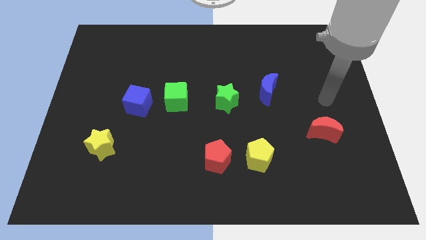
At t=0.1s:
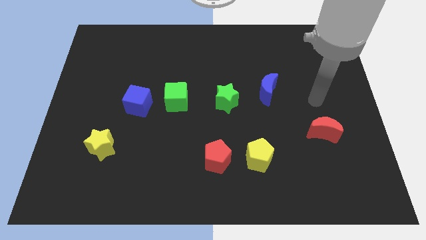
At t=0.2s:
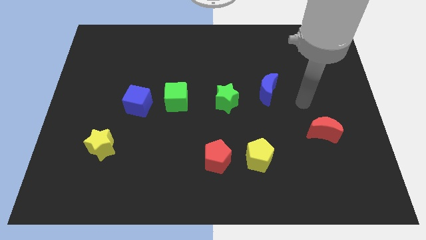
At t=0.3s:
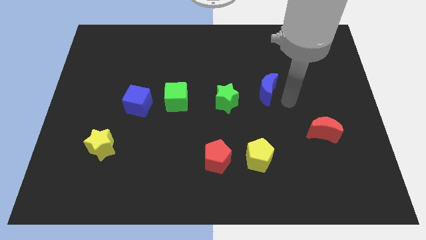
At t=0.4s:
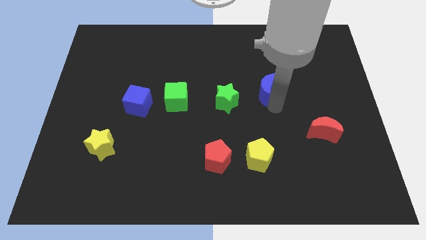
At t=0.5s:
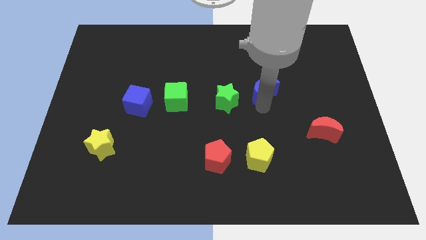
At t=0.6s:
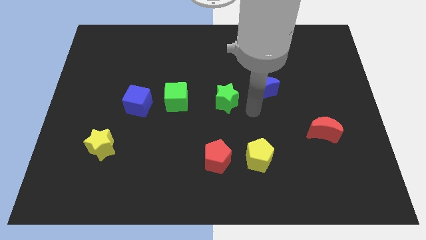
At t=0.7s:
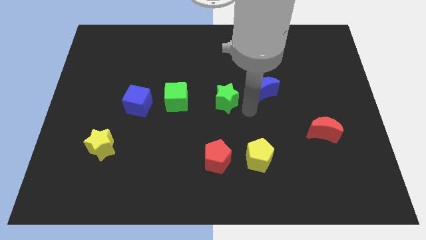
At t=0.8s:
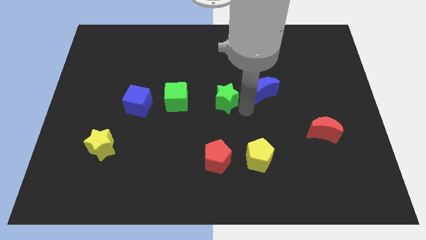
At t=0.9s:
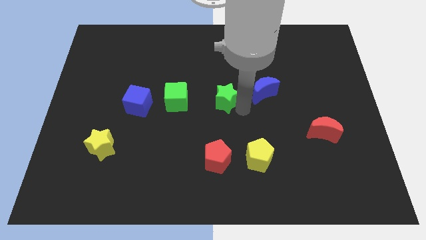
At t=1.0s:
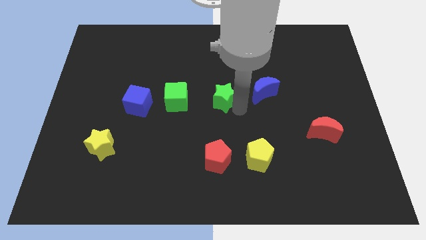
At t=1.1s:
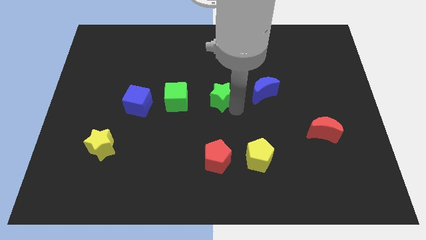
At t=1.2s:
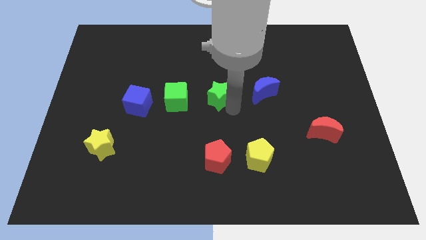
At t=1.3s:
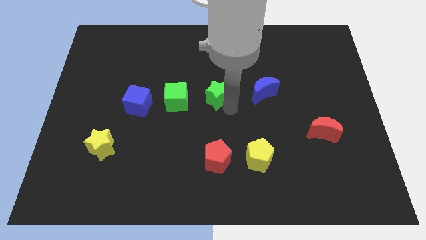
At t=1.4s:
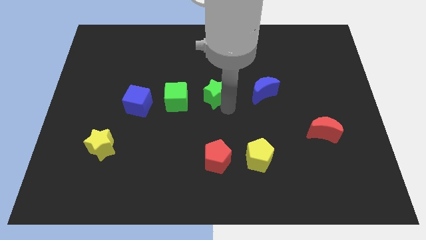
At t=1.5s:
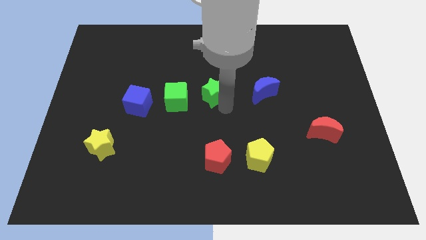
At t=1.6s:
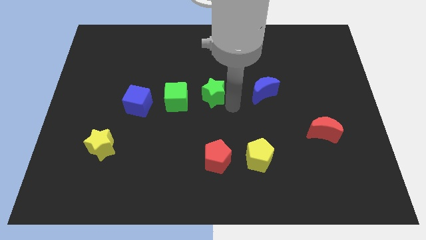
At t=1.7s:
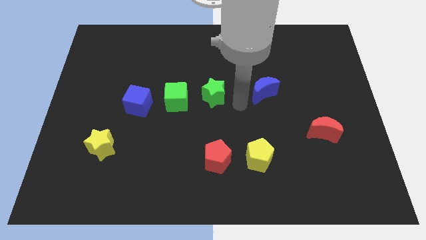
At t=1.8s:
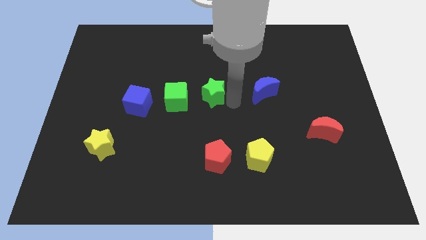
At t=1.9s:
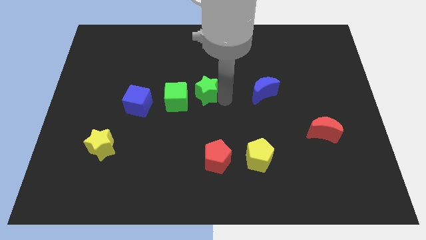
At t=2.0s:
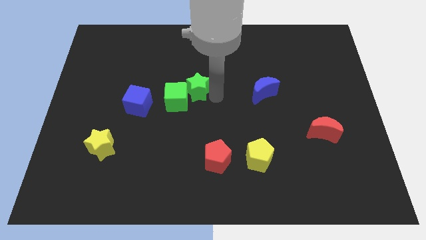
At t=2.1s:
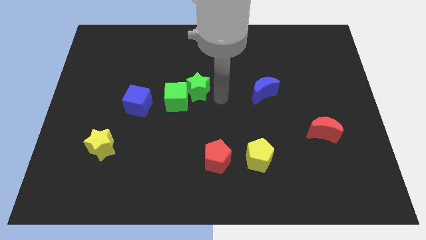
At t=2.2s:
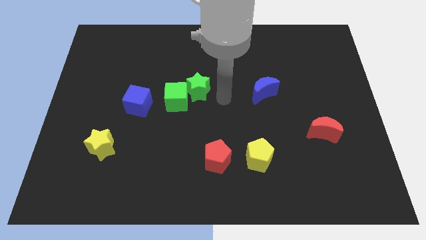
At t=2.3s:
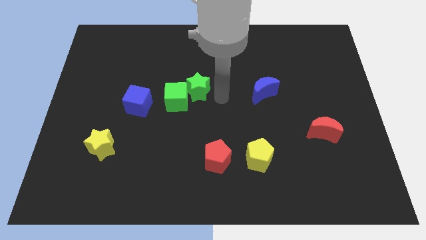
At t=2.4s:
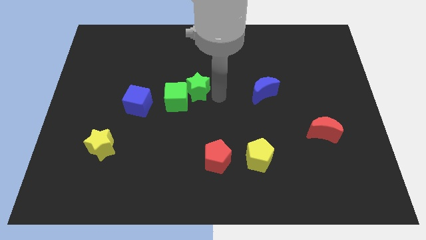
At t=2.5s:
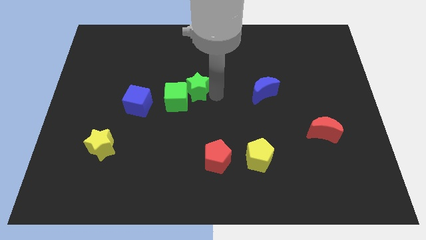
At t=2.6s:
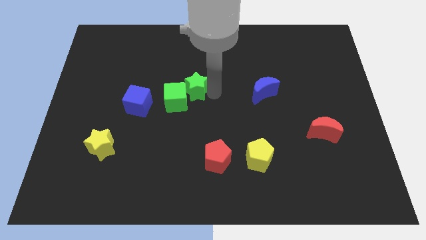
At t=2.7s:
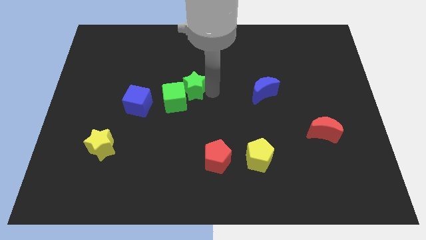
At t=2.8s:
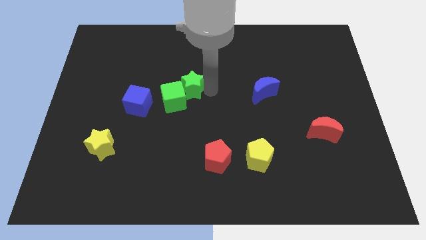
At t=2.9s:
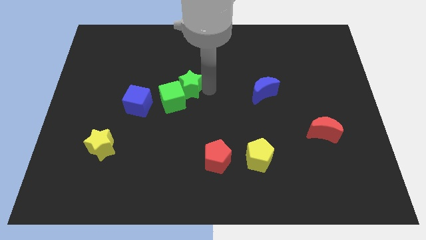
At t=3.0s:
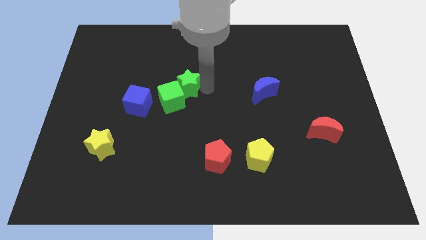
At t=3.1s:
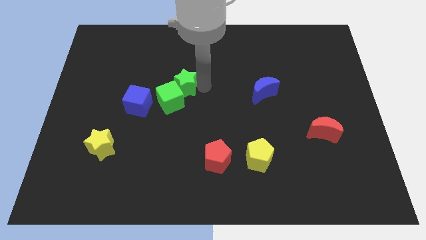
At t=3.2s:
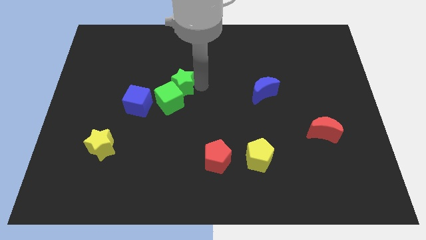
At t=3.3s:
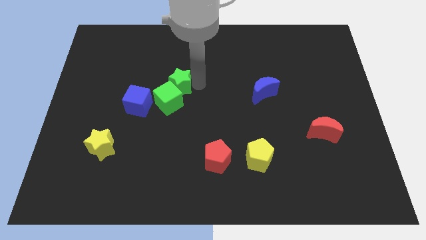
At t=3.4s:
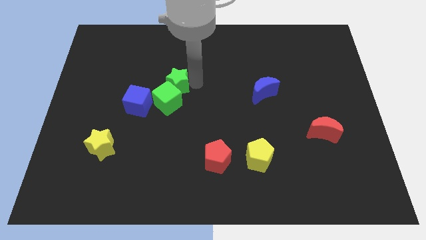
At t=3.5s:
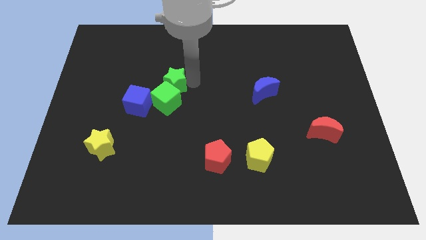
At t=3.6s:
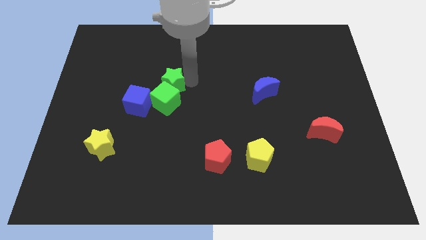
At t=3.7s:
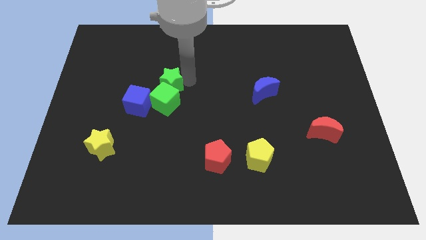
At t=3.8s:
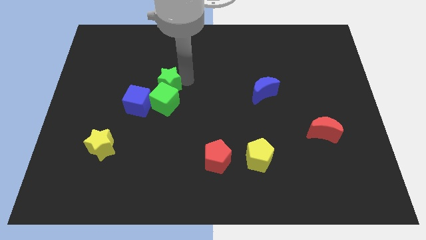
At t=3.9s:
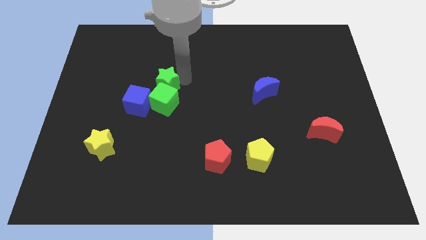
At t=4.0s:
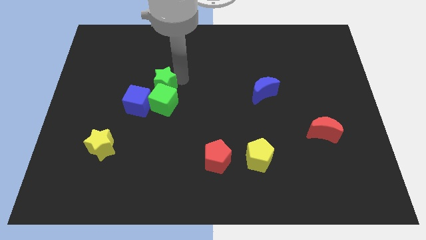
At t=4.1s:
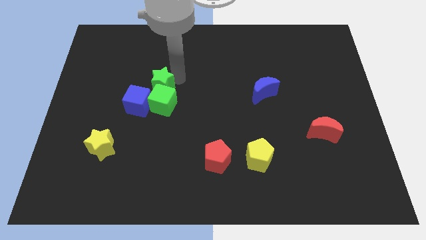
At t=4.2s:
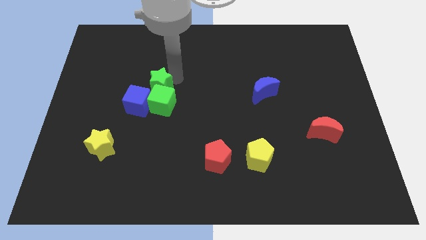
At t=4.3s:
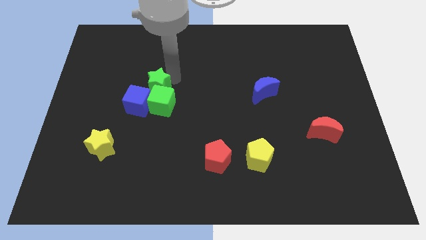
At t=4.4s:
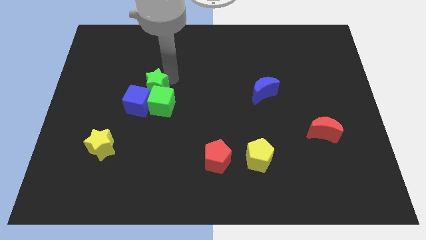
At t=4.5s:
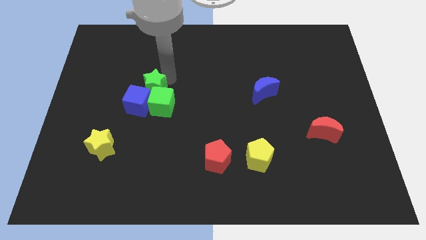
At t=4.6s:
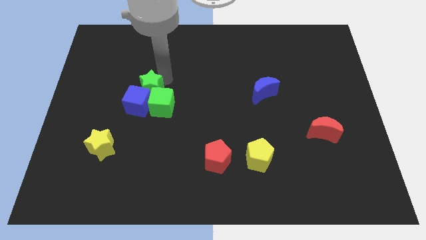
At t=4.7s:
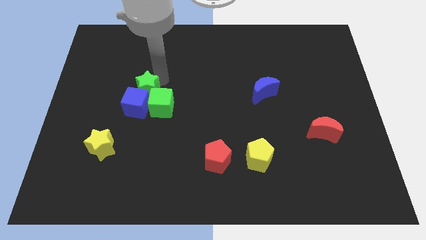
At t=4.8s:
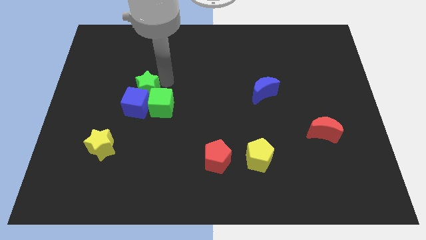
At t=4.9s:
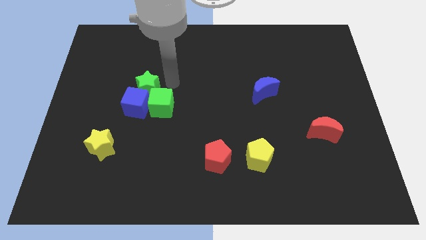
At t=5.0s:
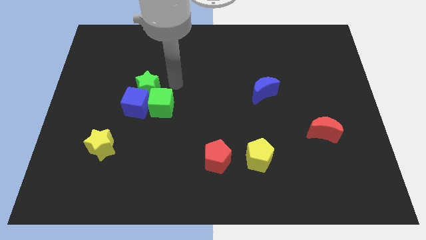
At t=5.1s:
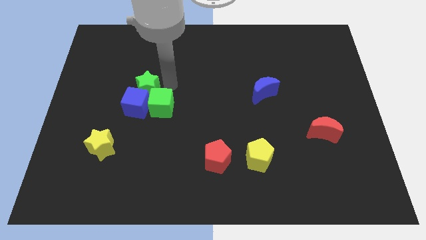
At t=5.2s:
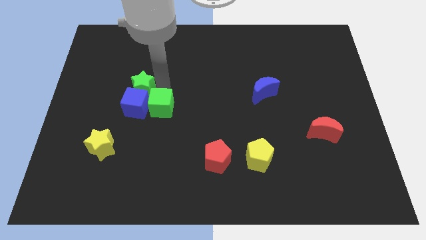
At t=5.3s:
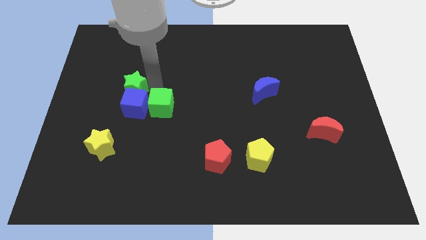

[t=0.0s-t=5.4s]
slide the green star to the left

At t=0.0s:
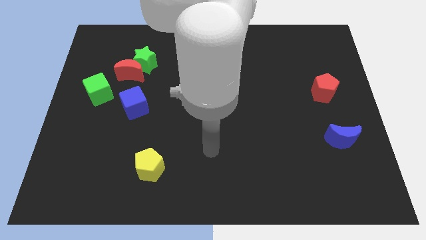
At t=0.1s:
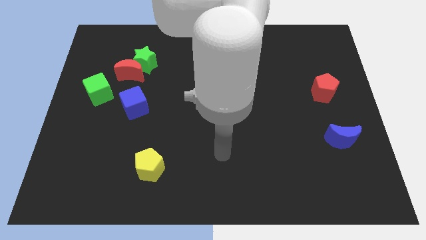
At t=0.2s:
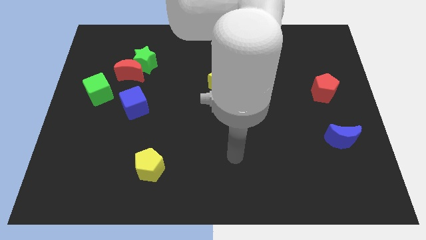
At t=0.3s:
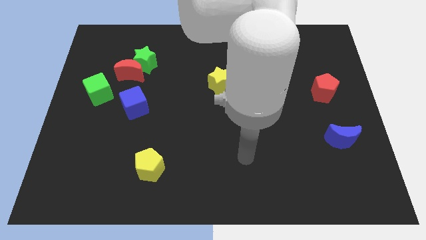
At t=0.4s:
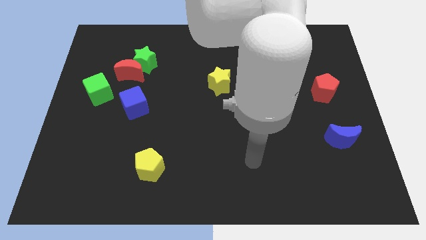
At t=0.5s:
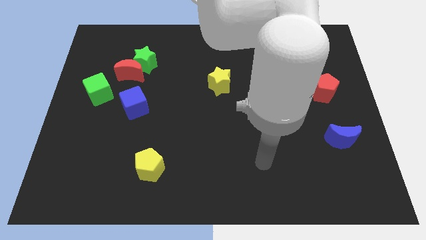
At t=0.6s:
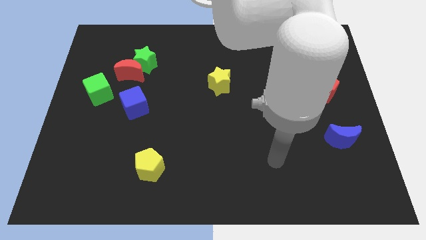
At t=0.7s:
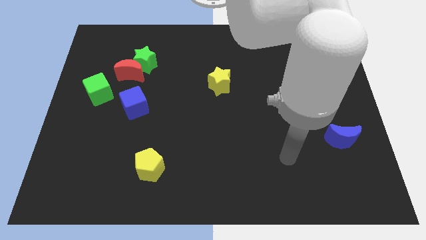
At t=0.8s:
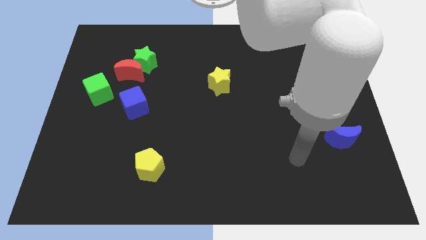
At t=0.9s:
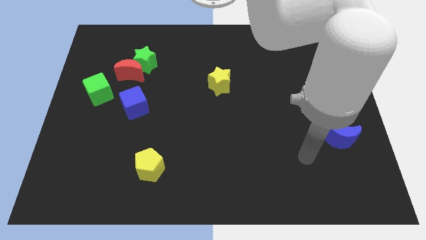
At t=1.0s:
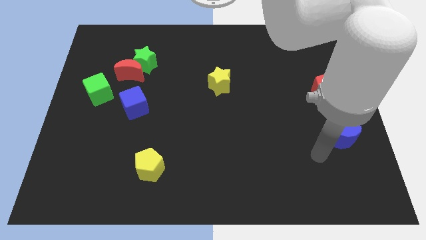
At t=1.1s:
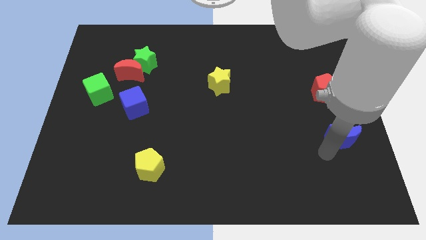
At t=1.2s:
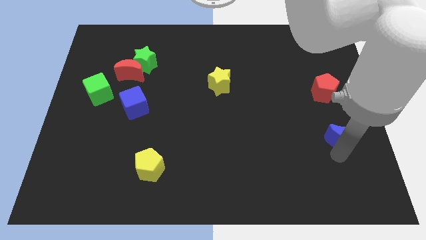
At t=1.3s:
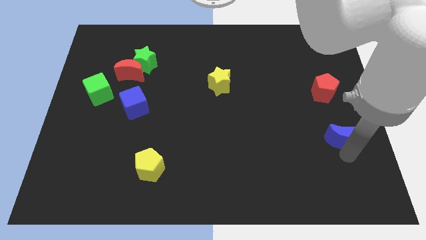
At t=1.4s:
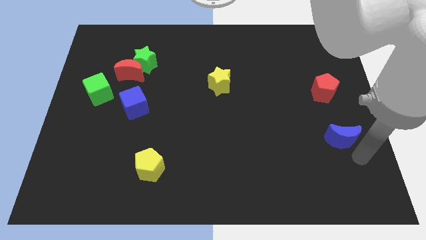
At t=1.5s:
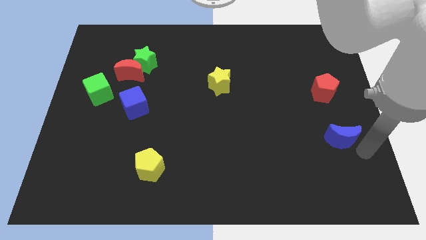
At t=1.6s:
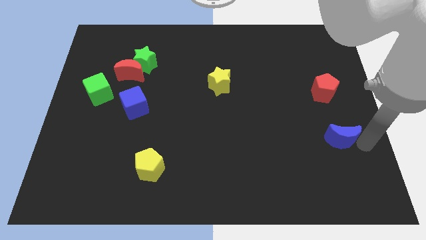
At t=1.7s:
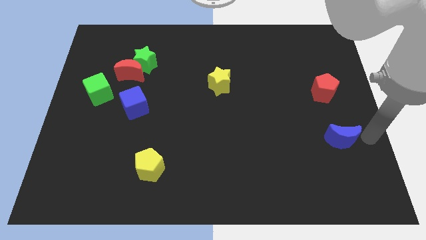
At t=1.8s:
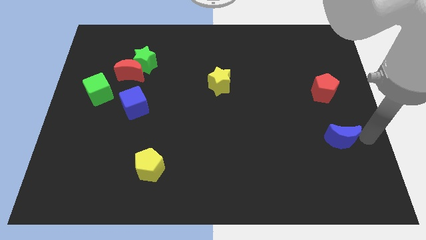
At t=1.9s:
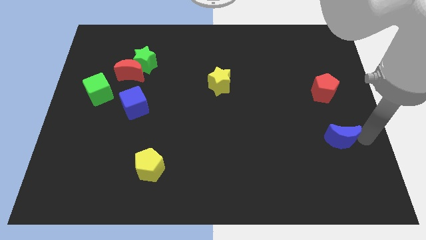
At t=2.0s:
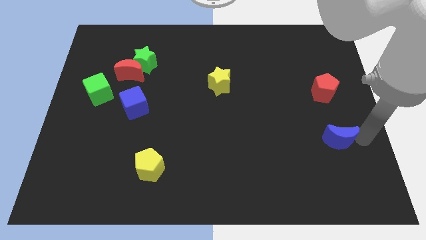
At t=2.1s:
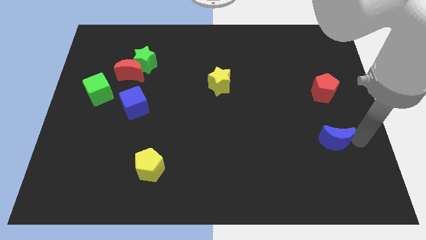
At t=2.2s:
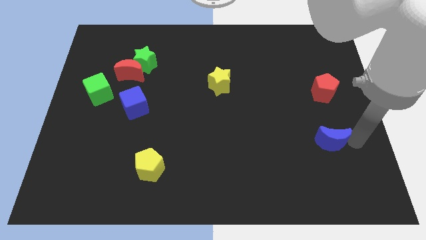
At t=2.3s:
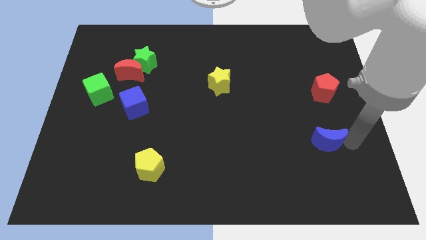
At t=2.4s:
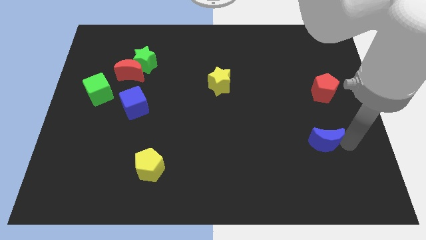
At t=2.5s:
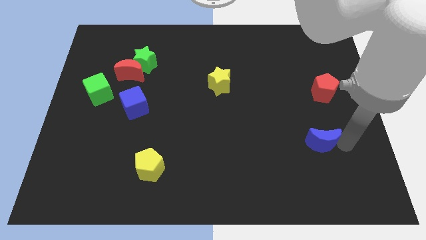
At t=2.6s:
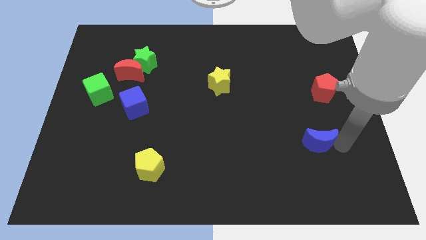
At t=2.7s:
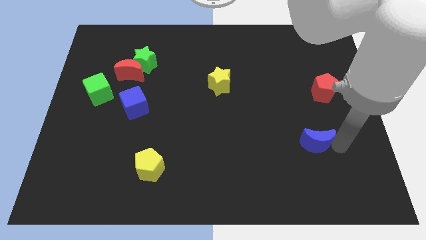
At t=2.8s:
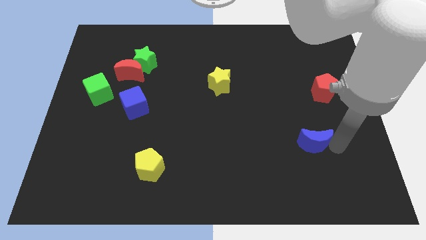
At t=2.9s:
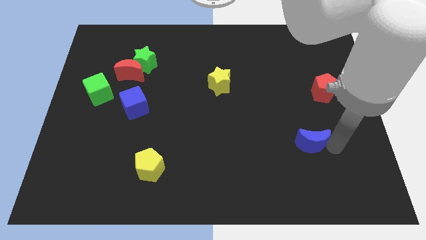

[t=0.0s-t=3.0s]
slide the blue moon to the left a little
